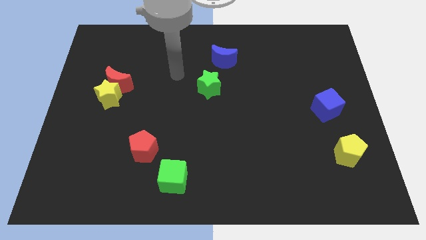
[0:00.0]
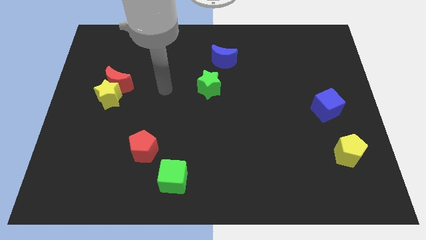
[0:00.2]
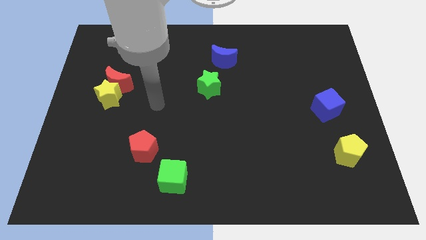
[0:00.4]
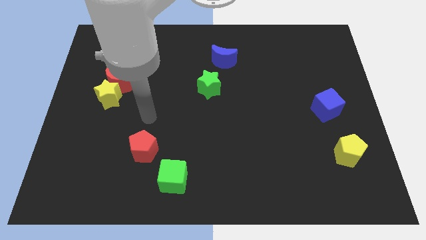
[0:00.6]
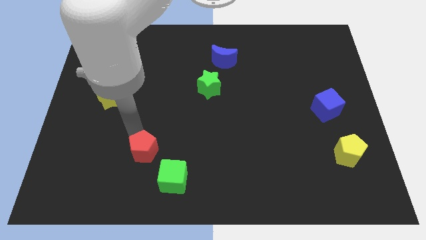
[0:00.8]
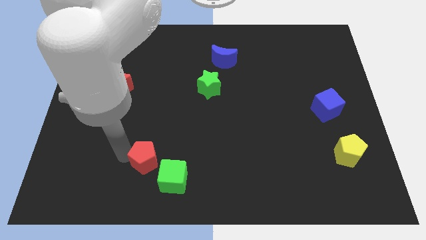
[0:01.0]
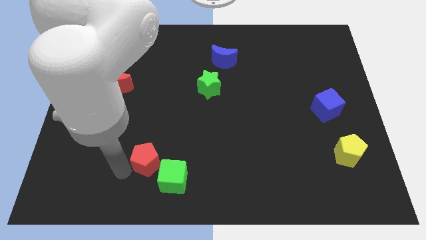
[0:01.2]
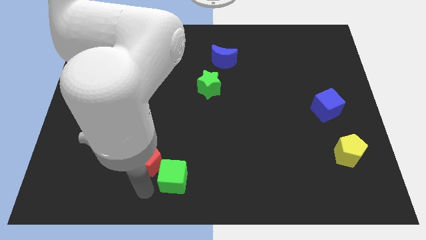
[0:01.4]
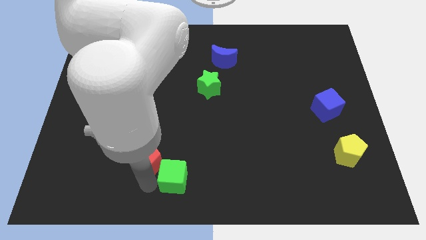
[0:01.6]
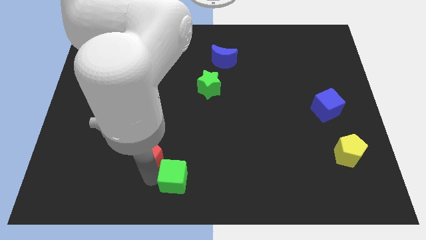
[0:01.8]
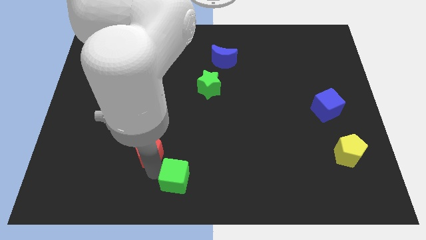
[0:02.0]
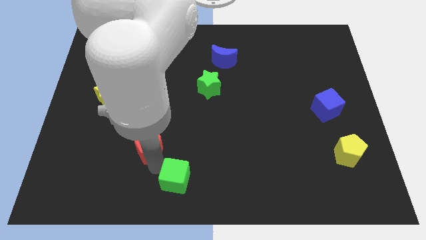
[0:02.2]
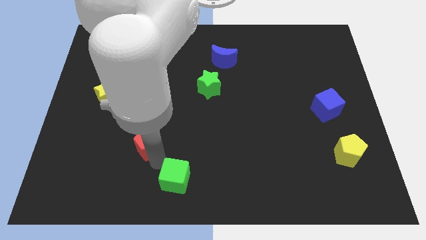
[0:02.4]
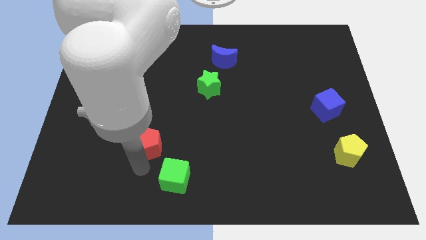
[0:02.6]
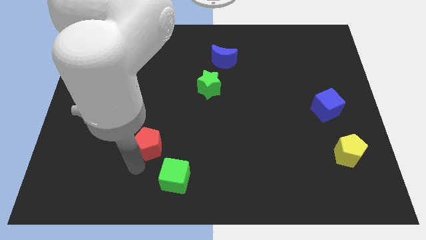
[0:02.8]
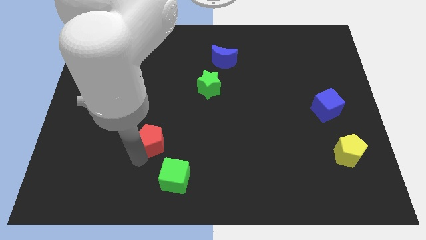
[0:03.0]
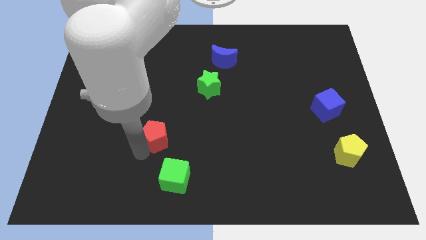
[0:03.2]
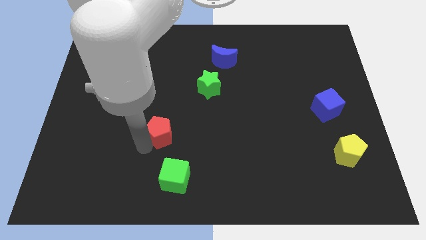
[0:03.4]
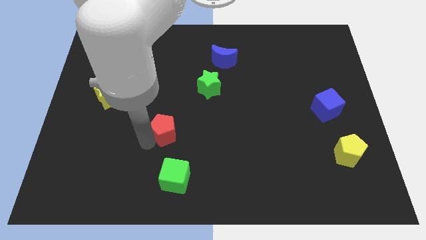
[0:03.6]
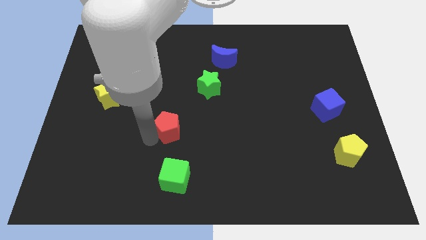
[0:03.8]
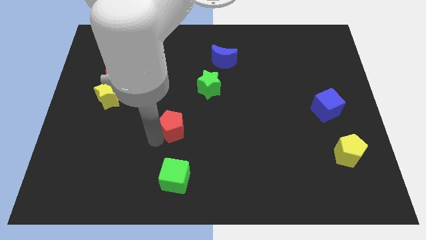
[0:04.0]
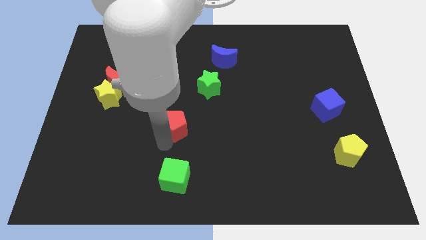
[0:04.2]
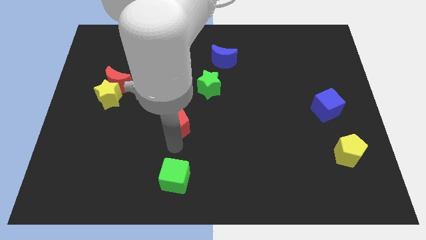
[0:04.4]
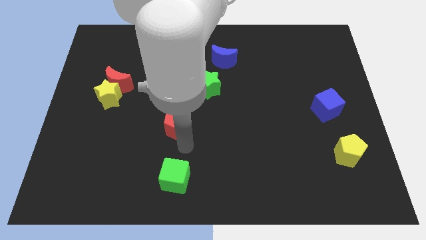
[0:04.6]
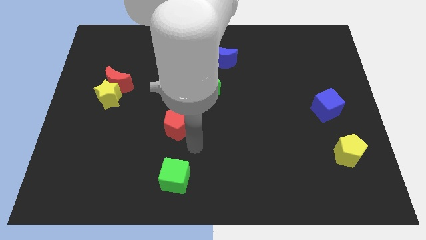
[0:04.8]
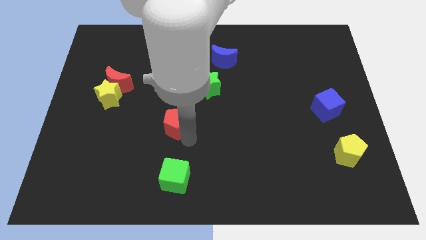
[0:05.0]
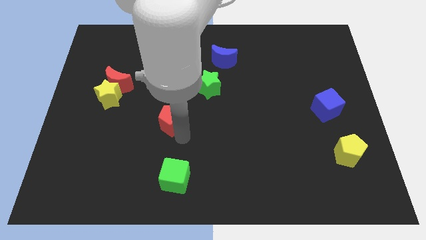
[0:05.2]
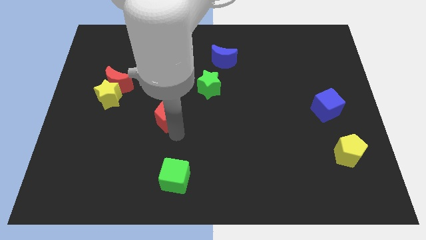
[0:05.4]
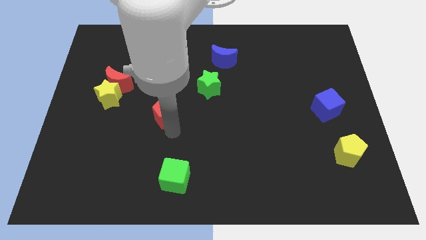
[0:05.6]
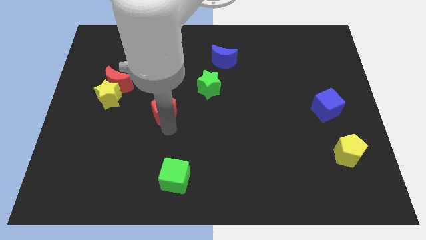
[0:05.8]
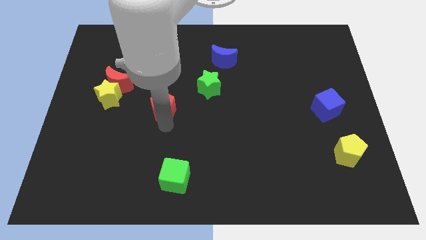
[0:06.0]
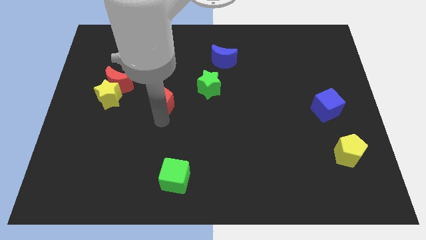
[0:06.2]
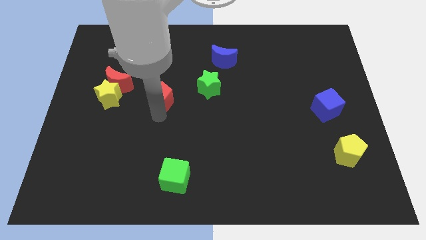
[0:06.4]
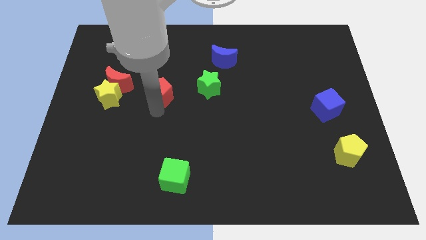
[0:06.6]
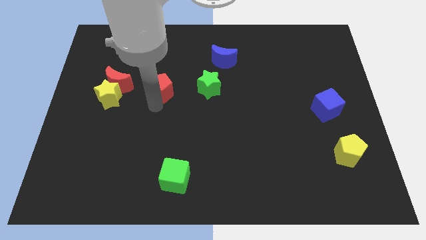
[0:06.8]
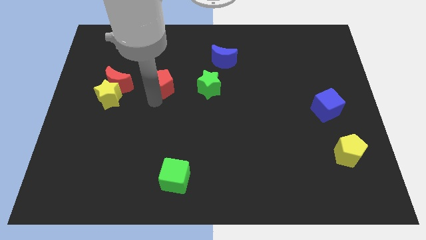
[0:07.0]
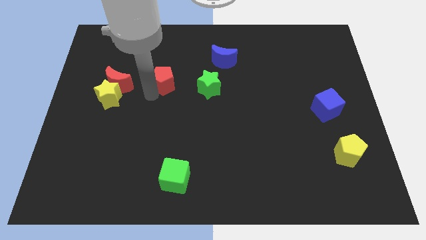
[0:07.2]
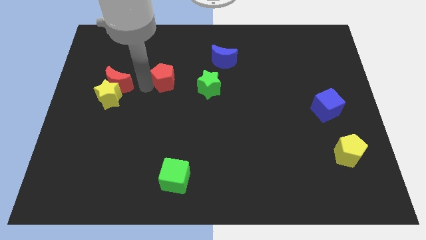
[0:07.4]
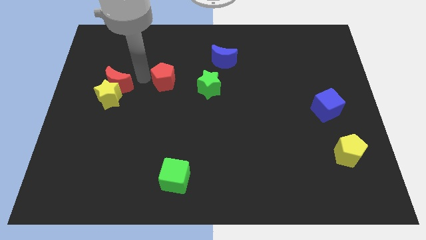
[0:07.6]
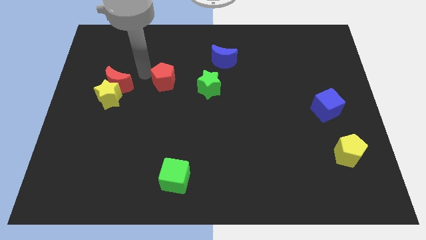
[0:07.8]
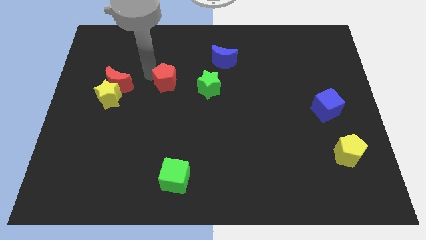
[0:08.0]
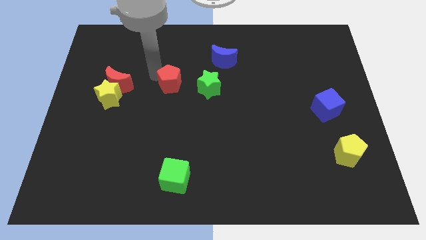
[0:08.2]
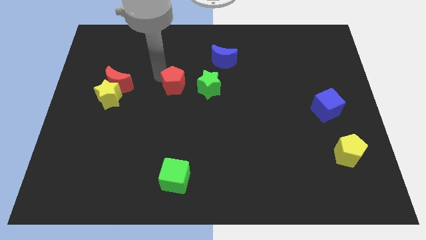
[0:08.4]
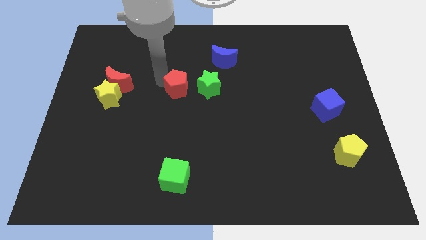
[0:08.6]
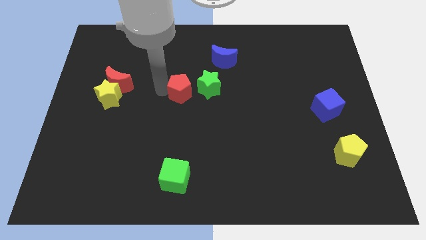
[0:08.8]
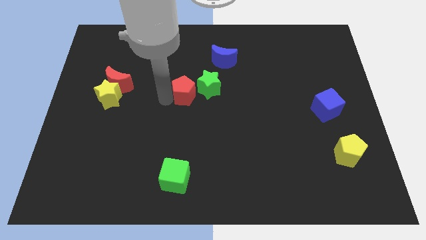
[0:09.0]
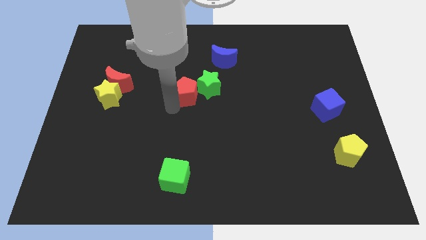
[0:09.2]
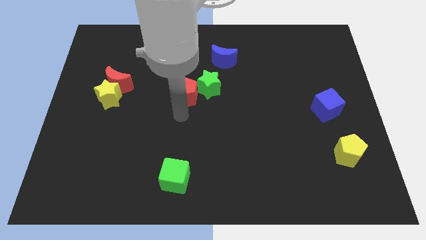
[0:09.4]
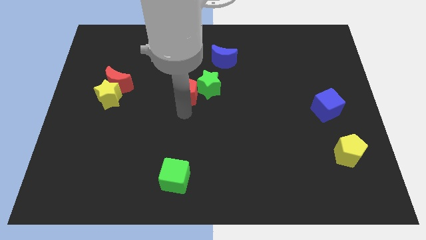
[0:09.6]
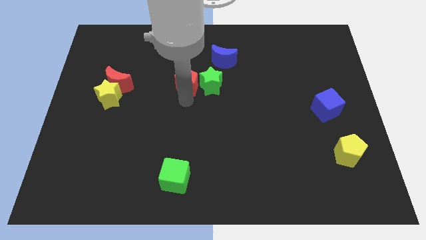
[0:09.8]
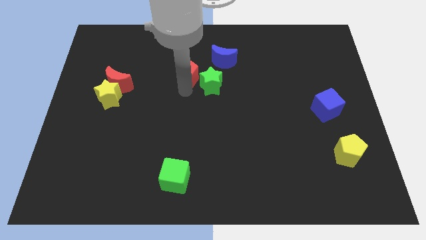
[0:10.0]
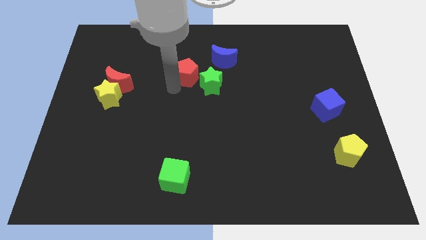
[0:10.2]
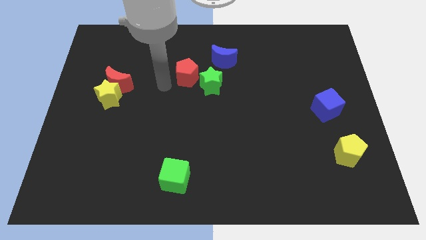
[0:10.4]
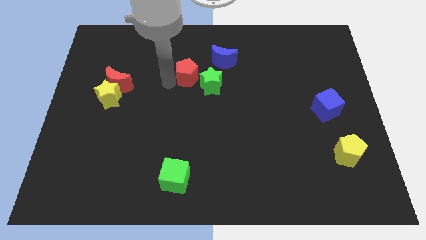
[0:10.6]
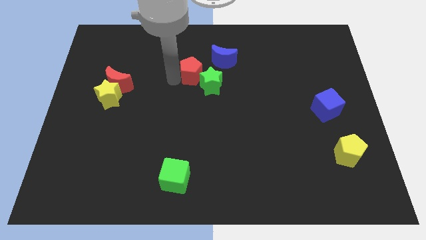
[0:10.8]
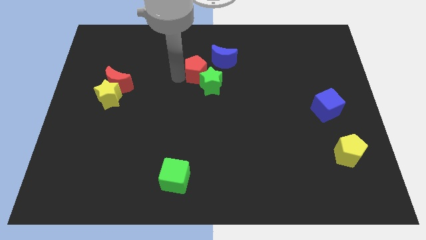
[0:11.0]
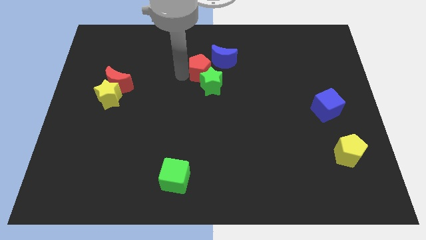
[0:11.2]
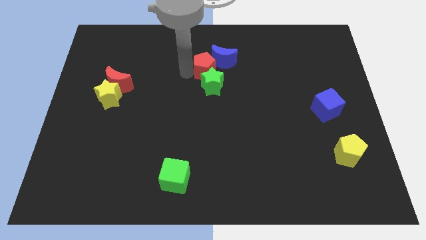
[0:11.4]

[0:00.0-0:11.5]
put the red pentagon towards the blue moon
